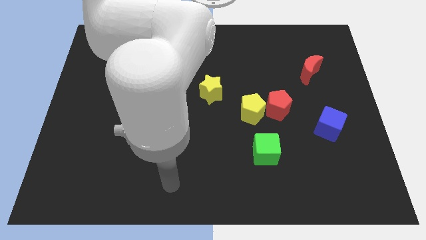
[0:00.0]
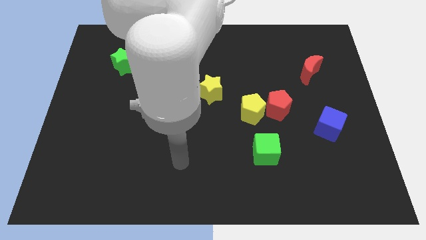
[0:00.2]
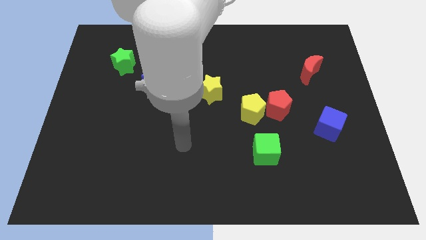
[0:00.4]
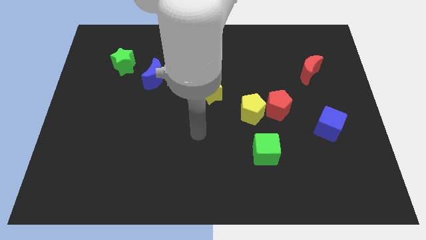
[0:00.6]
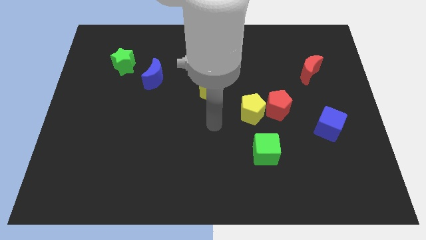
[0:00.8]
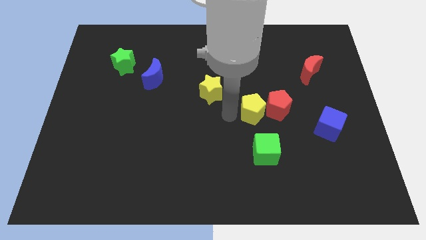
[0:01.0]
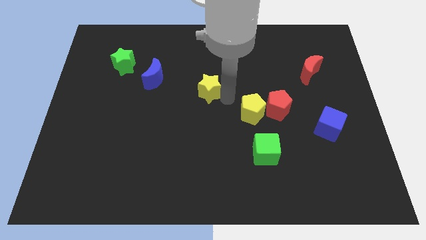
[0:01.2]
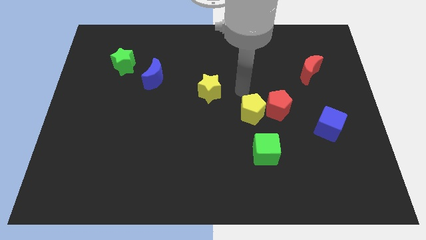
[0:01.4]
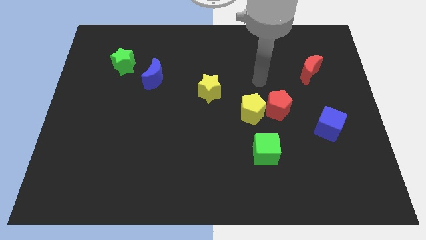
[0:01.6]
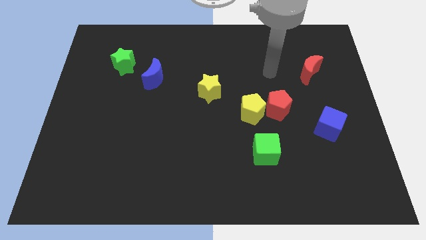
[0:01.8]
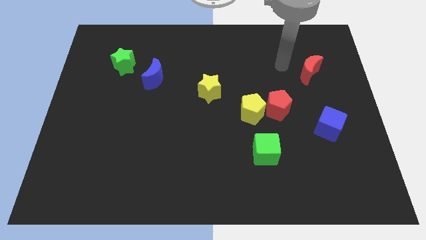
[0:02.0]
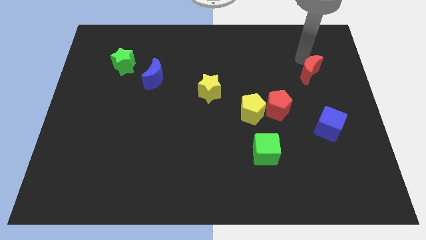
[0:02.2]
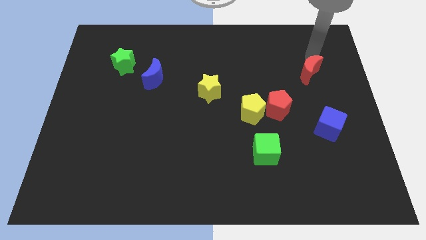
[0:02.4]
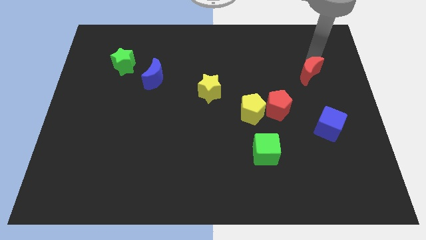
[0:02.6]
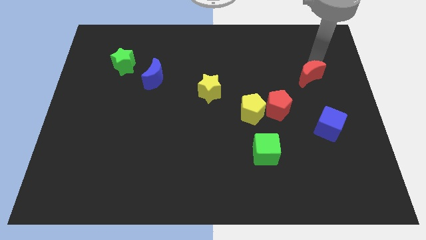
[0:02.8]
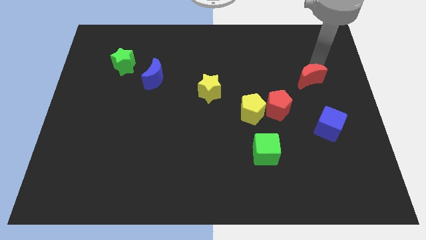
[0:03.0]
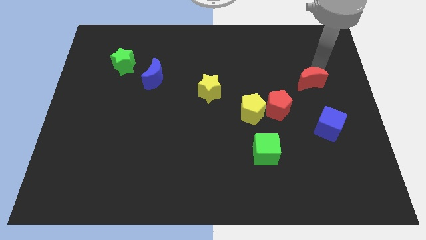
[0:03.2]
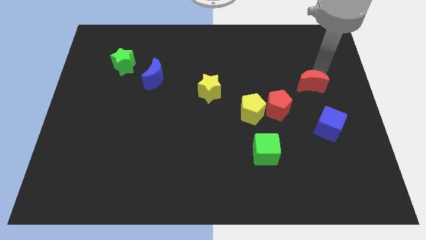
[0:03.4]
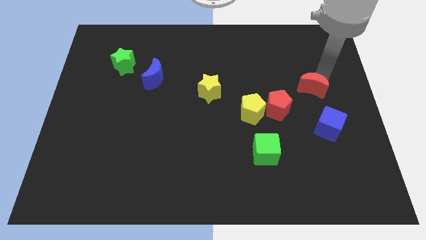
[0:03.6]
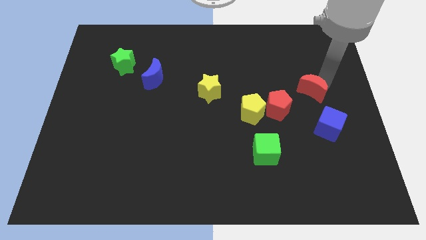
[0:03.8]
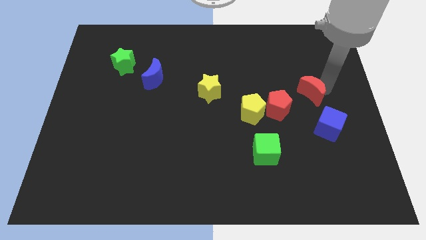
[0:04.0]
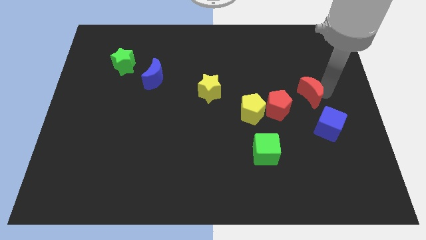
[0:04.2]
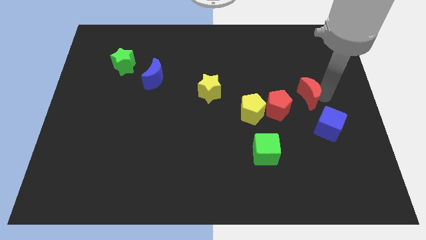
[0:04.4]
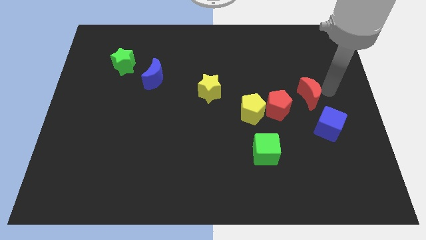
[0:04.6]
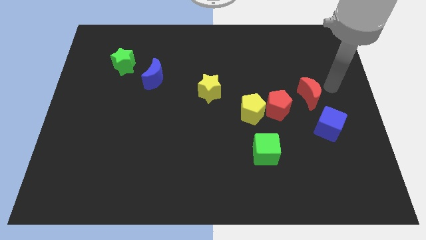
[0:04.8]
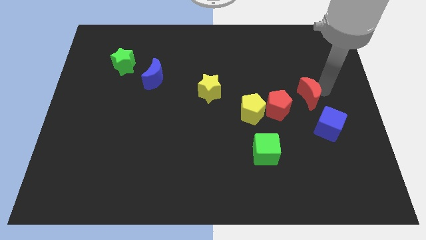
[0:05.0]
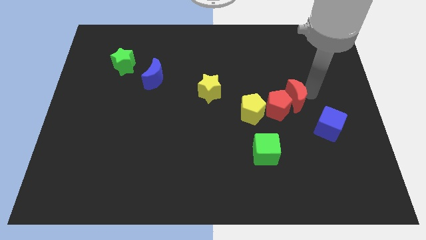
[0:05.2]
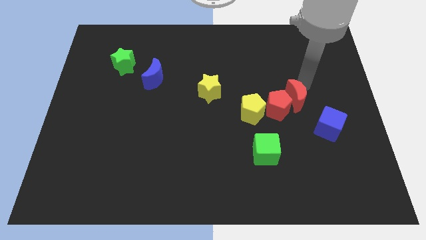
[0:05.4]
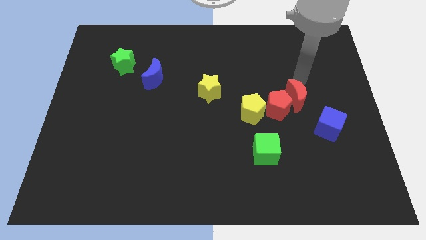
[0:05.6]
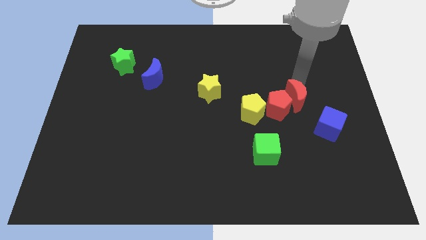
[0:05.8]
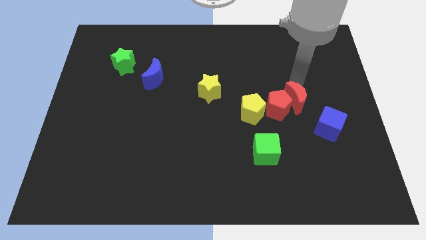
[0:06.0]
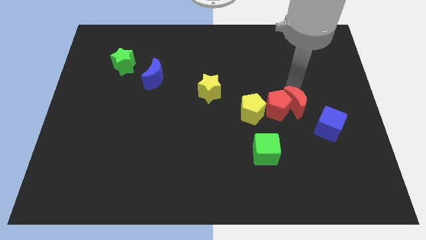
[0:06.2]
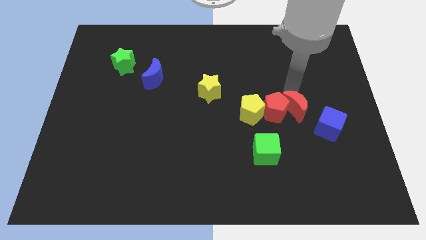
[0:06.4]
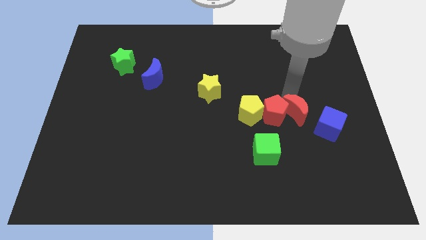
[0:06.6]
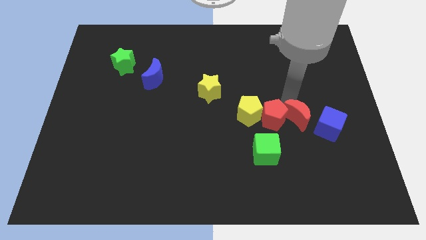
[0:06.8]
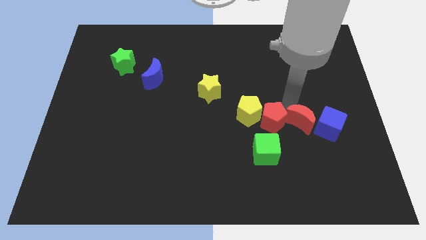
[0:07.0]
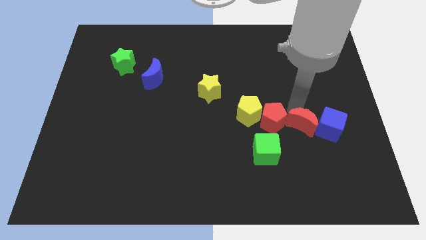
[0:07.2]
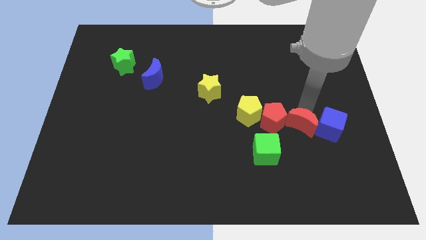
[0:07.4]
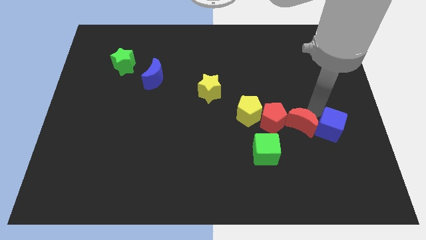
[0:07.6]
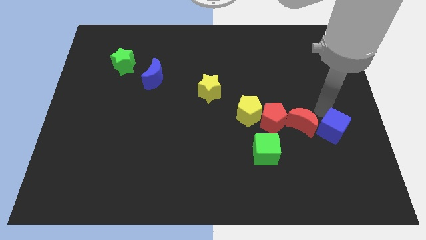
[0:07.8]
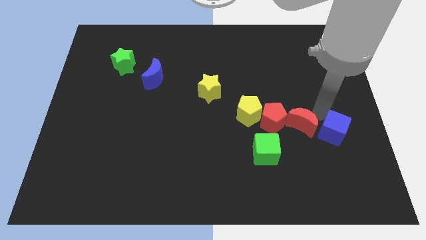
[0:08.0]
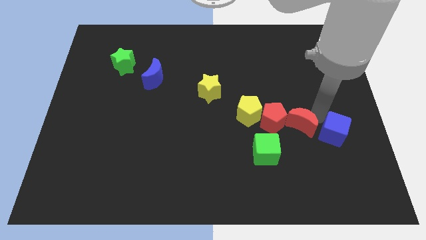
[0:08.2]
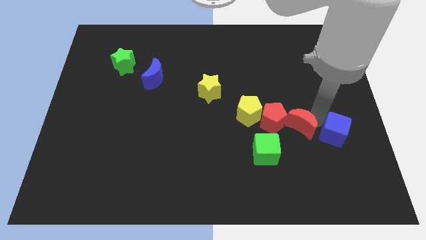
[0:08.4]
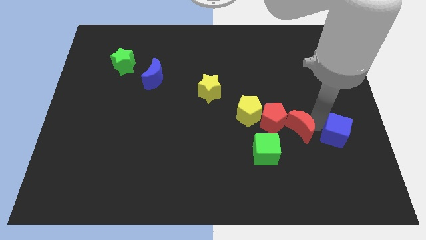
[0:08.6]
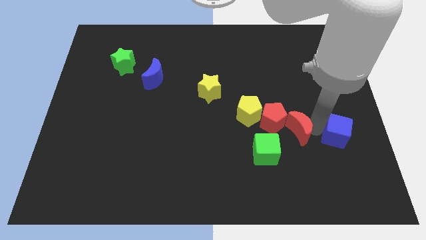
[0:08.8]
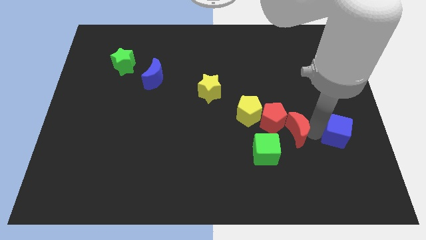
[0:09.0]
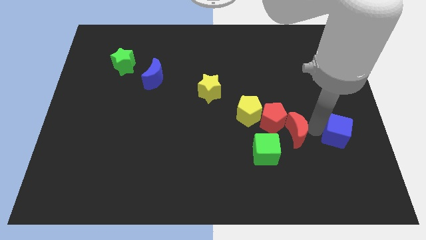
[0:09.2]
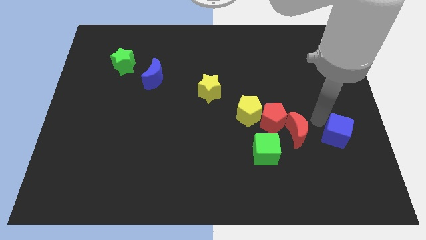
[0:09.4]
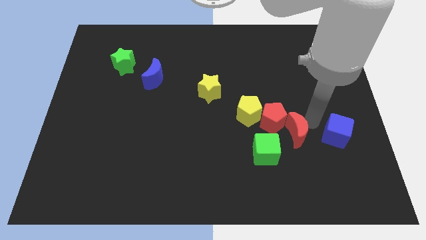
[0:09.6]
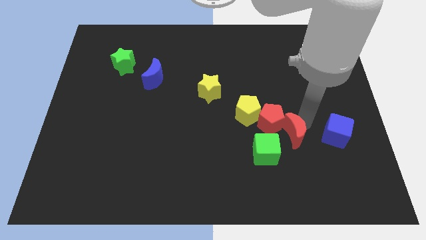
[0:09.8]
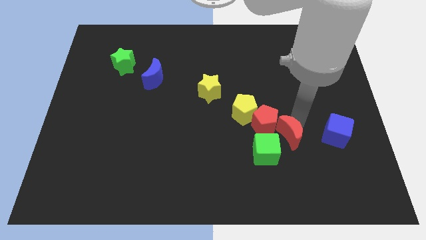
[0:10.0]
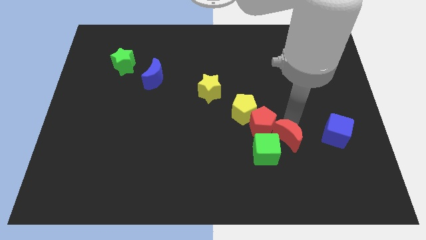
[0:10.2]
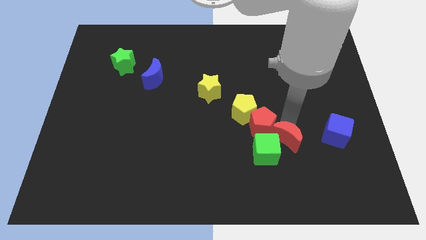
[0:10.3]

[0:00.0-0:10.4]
put the red moon towards the green cube

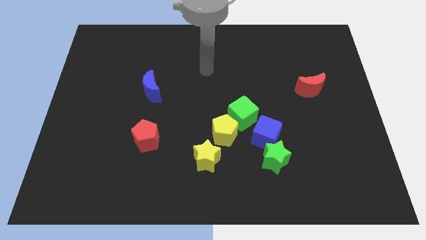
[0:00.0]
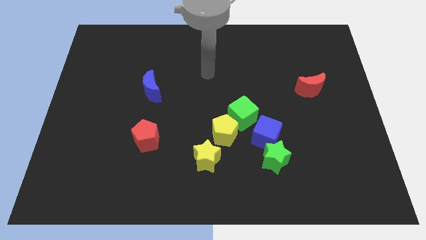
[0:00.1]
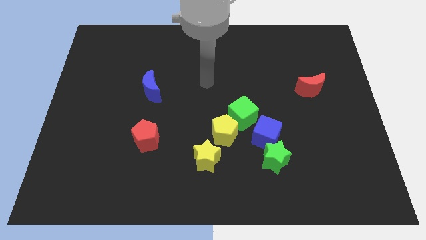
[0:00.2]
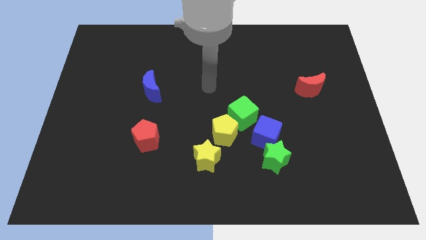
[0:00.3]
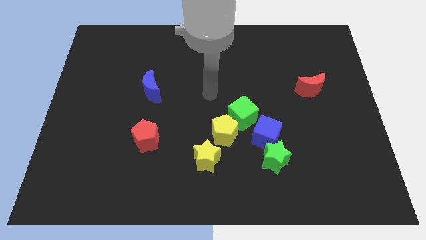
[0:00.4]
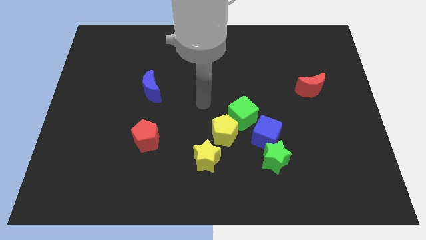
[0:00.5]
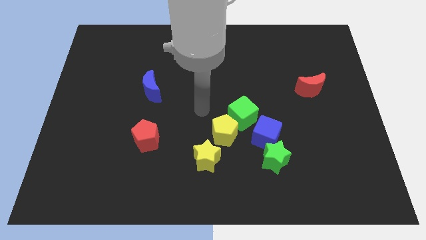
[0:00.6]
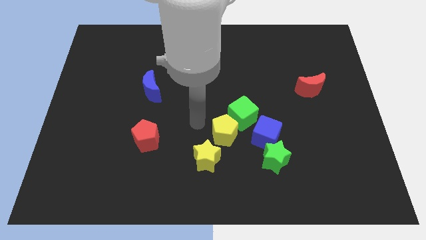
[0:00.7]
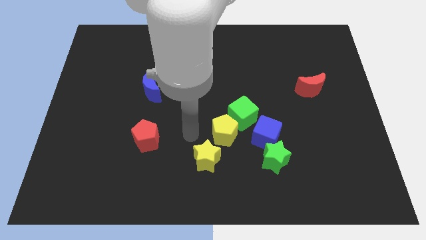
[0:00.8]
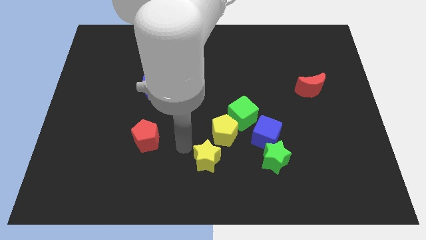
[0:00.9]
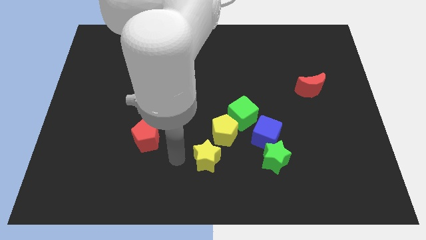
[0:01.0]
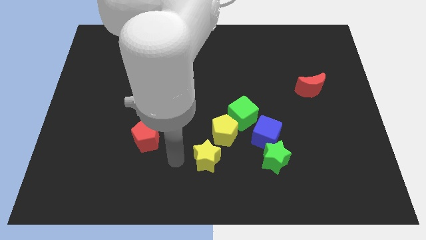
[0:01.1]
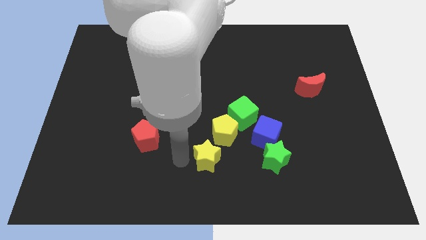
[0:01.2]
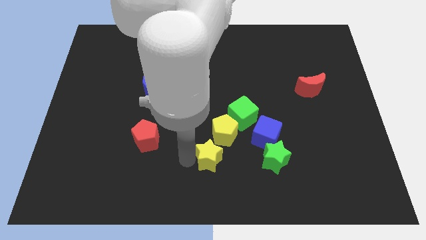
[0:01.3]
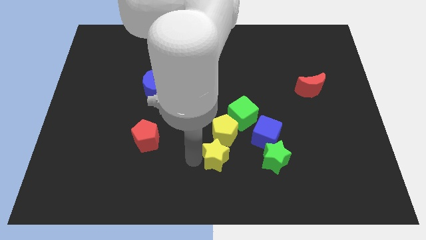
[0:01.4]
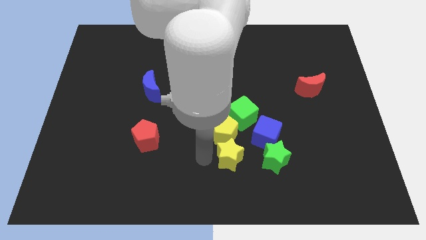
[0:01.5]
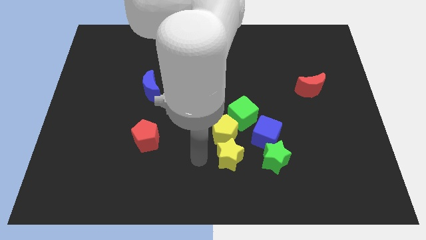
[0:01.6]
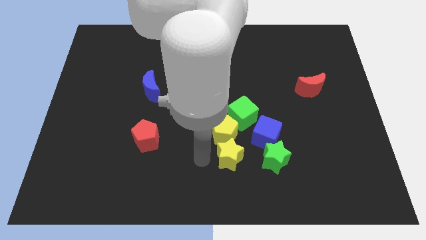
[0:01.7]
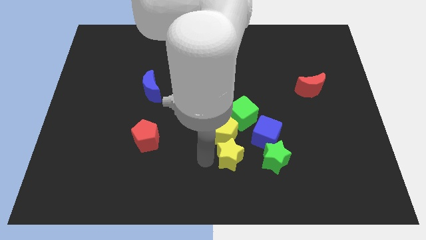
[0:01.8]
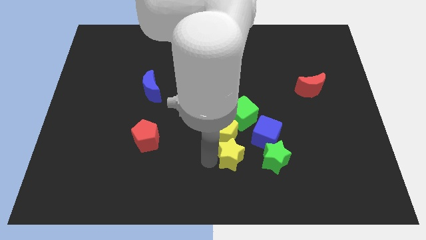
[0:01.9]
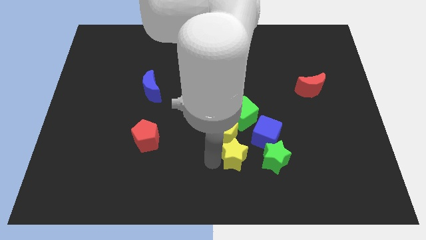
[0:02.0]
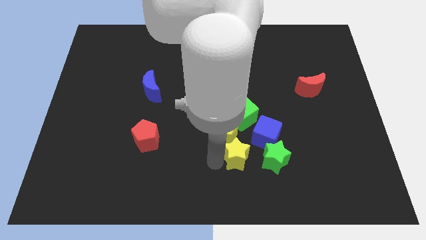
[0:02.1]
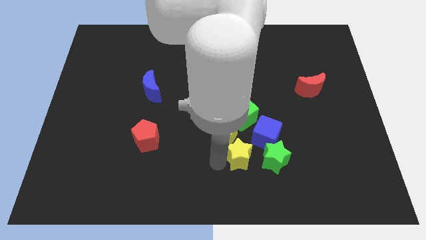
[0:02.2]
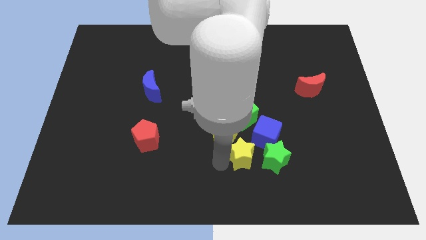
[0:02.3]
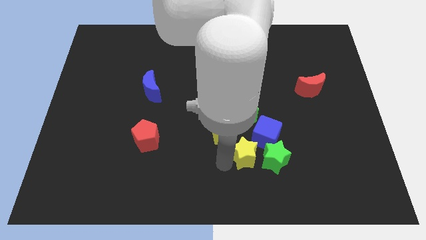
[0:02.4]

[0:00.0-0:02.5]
push the yellow star to the green star

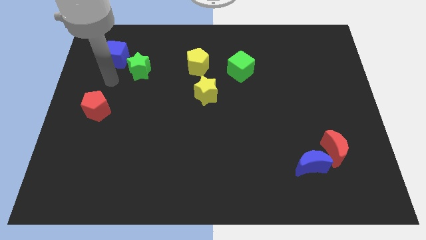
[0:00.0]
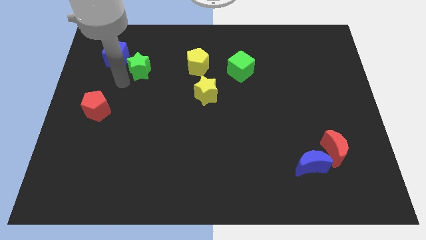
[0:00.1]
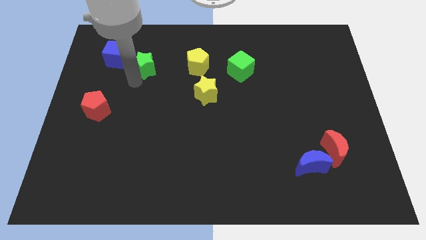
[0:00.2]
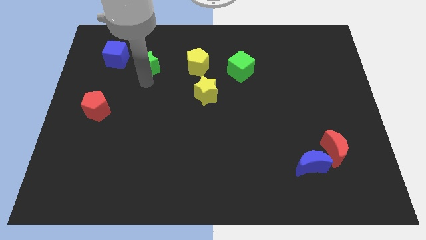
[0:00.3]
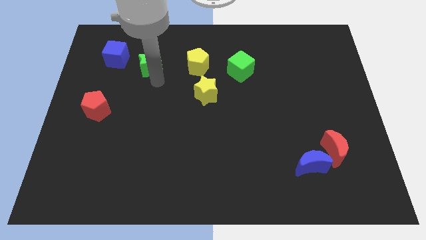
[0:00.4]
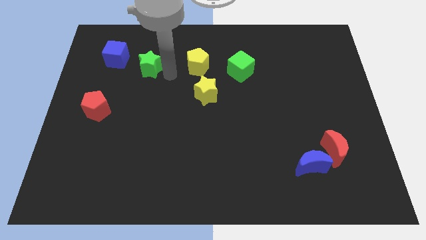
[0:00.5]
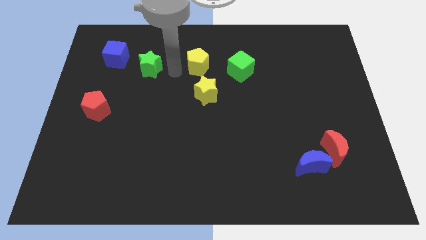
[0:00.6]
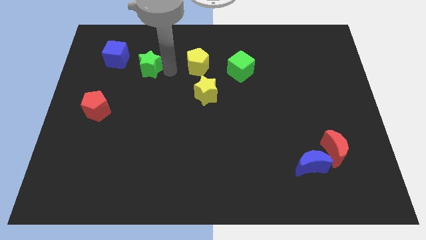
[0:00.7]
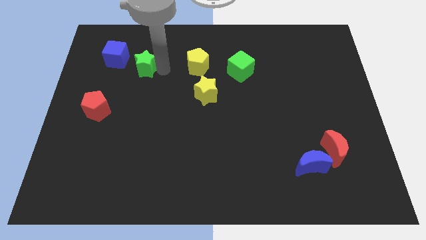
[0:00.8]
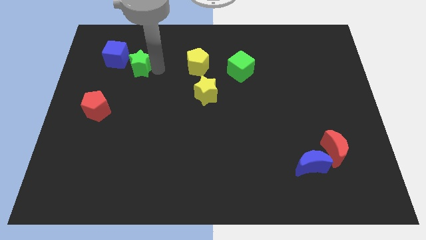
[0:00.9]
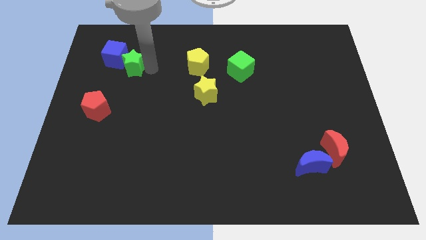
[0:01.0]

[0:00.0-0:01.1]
put the green star towards the blue cube
